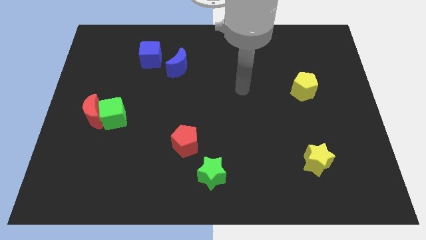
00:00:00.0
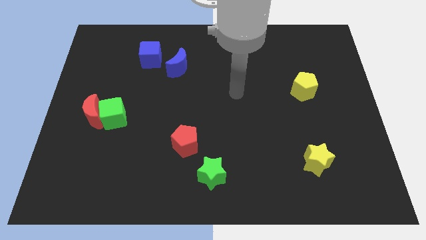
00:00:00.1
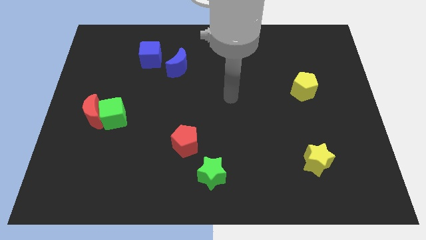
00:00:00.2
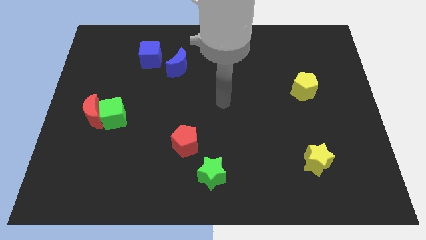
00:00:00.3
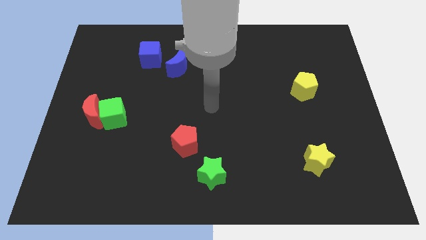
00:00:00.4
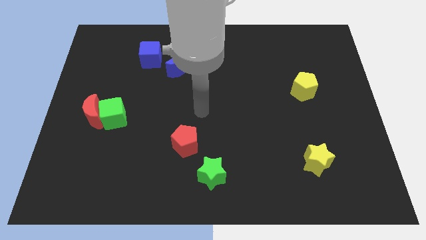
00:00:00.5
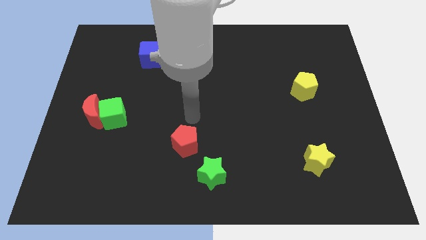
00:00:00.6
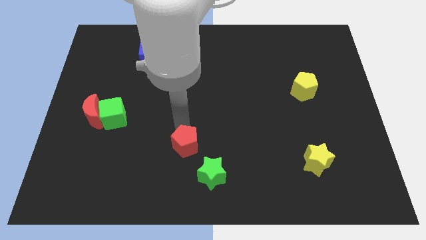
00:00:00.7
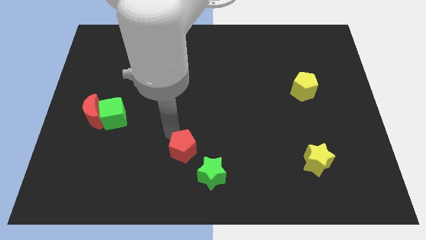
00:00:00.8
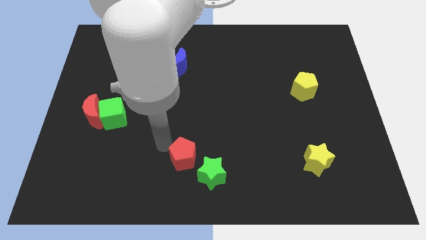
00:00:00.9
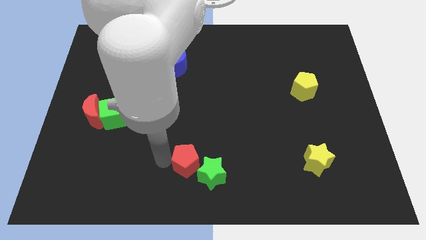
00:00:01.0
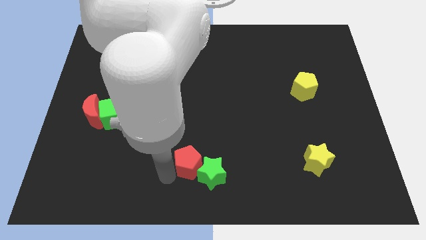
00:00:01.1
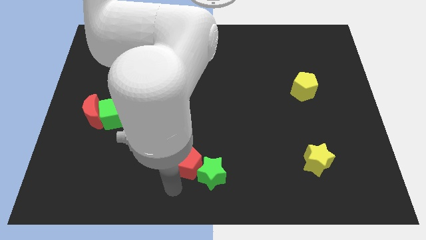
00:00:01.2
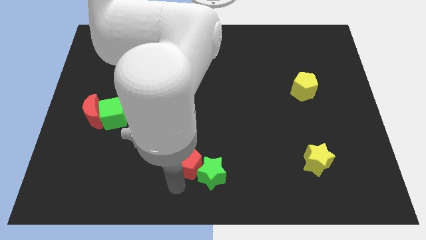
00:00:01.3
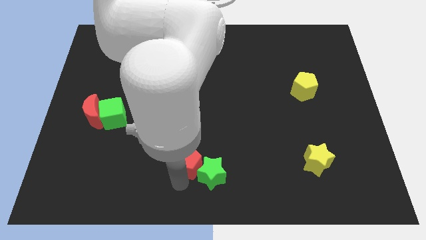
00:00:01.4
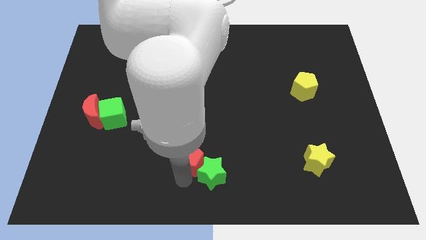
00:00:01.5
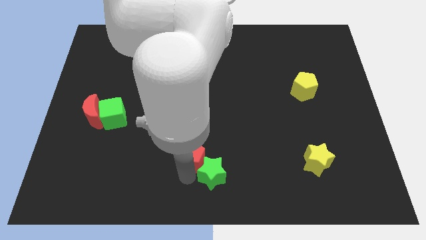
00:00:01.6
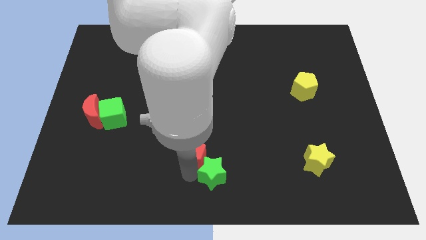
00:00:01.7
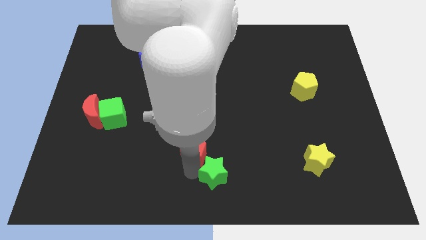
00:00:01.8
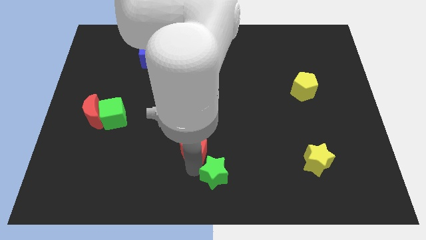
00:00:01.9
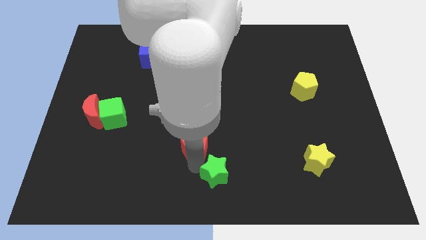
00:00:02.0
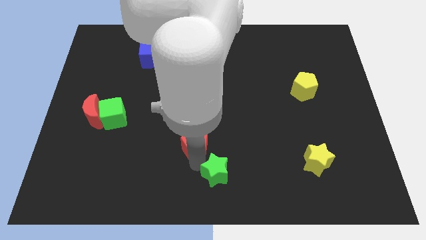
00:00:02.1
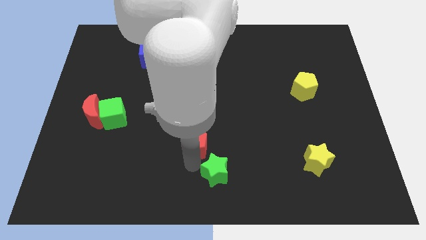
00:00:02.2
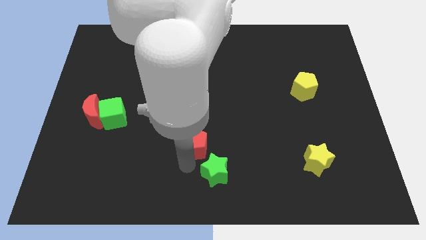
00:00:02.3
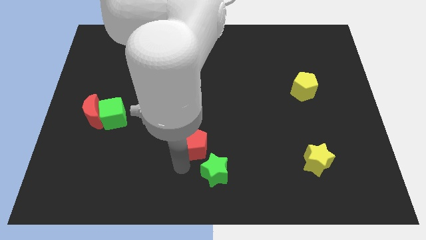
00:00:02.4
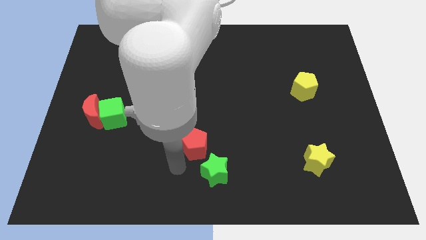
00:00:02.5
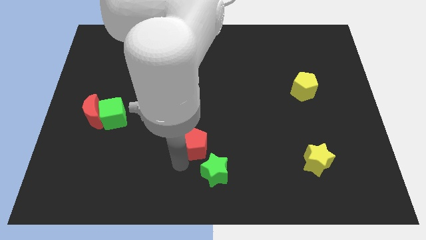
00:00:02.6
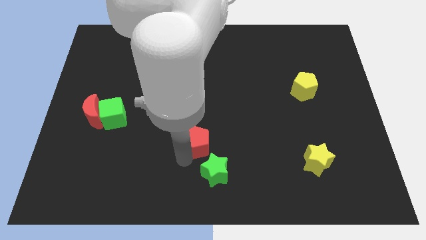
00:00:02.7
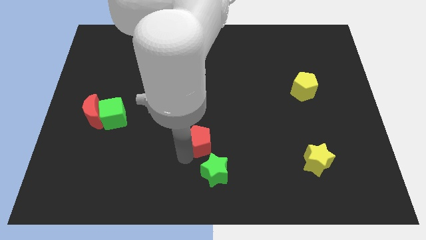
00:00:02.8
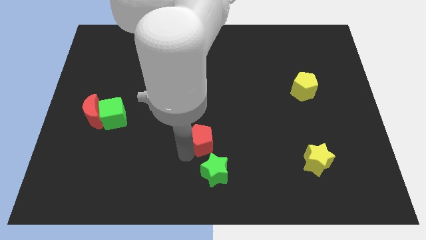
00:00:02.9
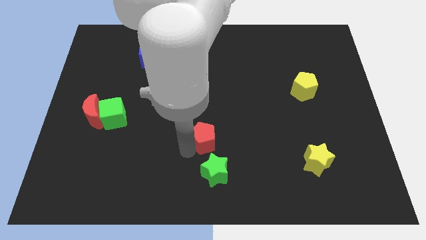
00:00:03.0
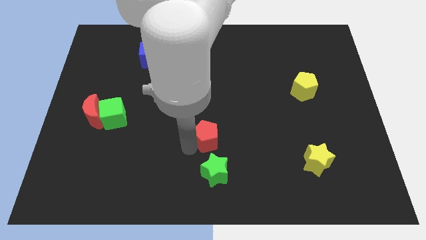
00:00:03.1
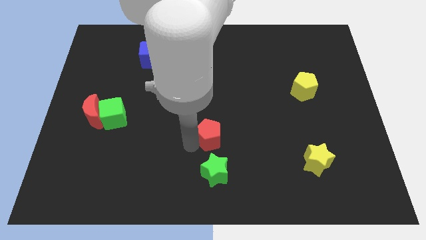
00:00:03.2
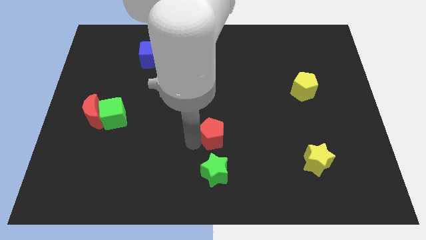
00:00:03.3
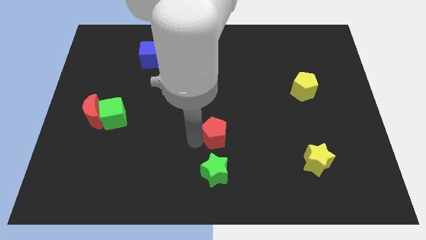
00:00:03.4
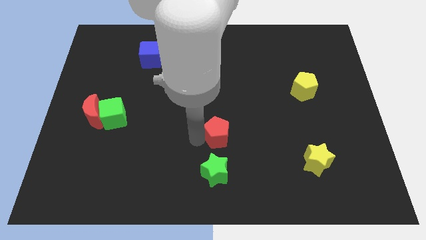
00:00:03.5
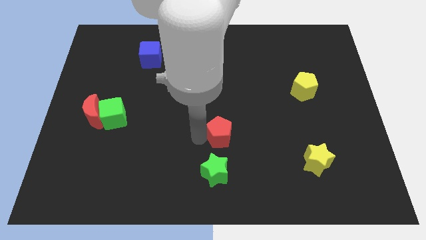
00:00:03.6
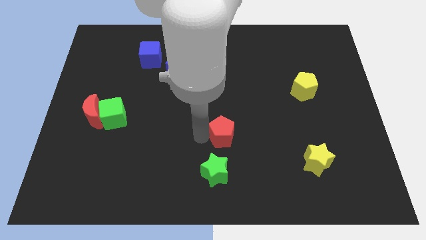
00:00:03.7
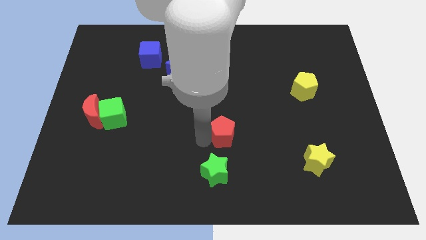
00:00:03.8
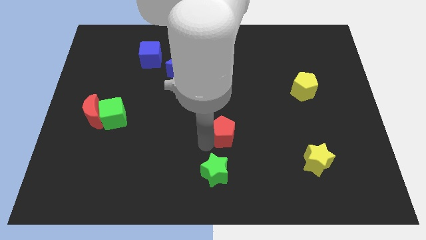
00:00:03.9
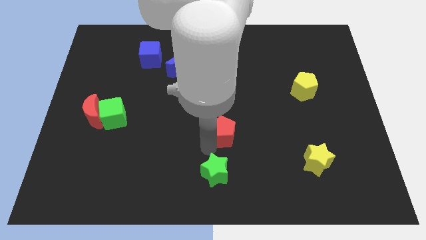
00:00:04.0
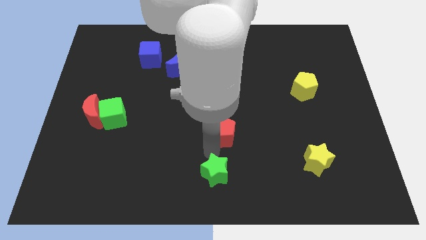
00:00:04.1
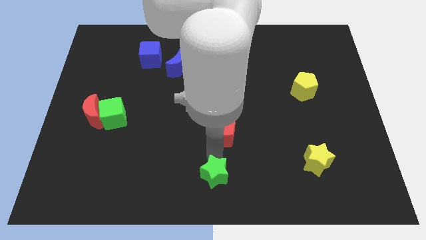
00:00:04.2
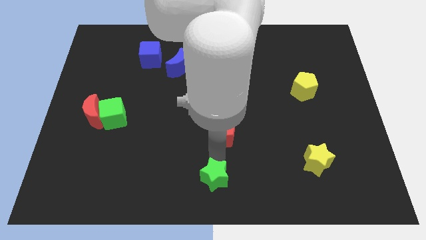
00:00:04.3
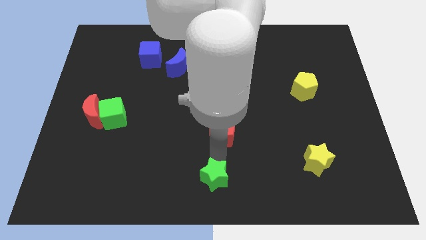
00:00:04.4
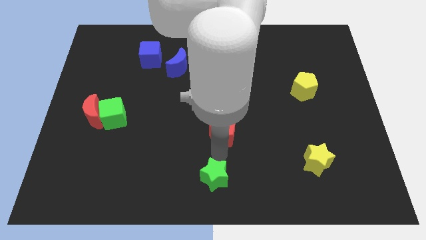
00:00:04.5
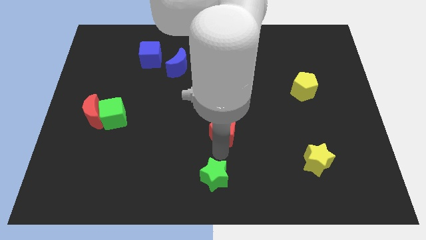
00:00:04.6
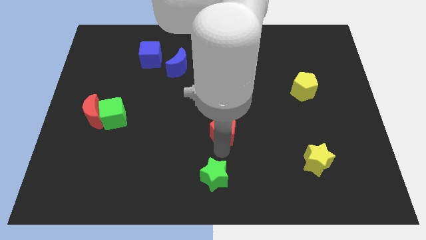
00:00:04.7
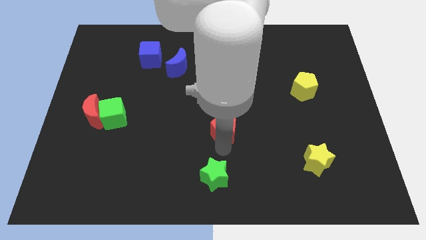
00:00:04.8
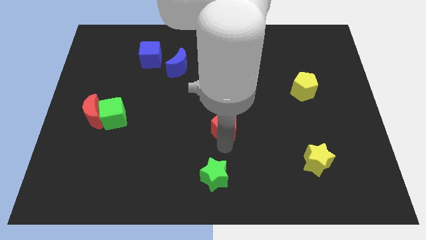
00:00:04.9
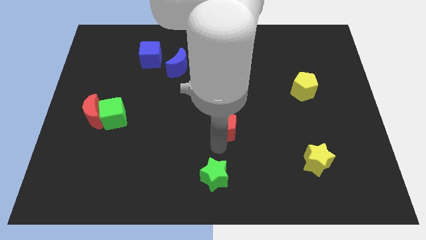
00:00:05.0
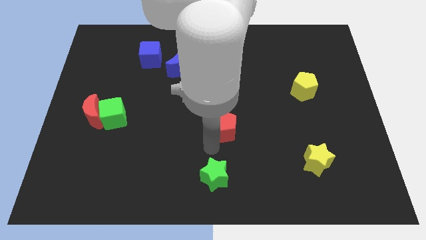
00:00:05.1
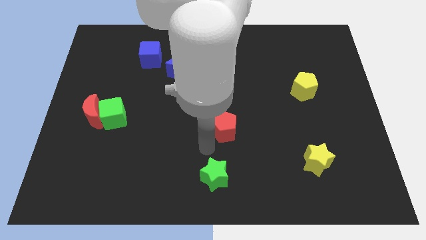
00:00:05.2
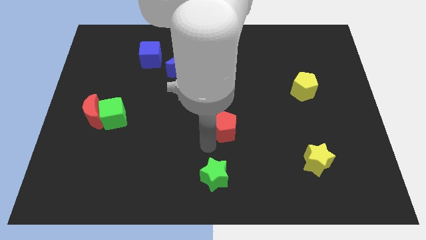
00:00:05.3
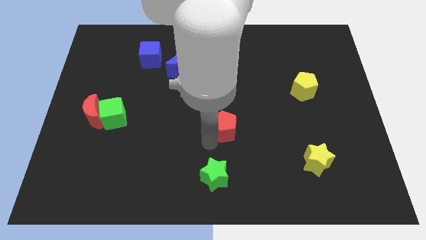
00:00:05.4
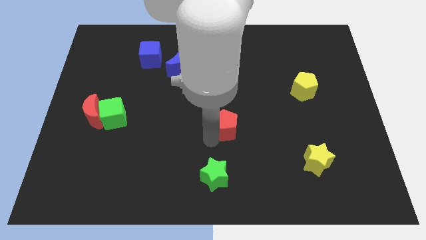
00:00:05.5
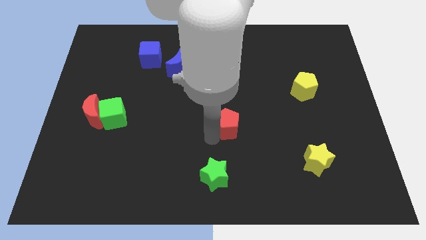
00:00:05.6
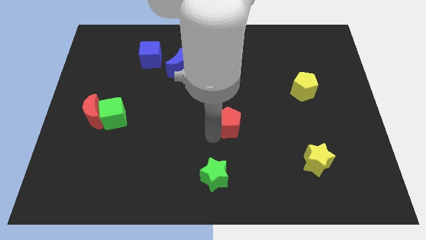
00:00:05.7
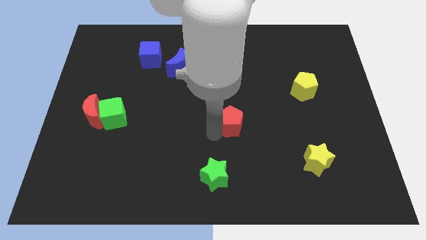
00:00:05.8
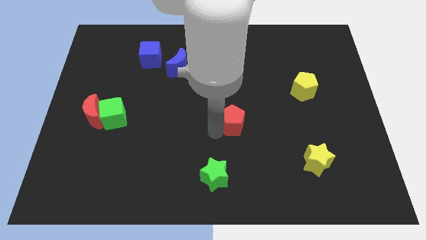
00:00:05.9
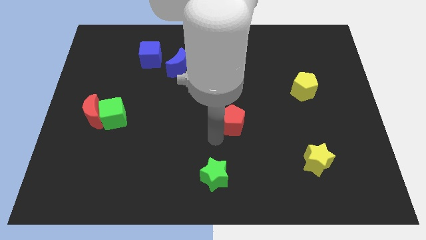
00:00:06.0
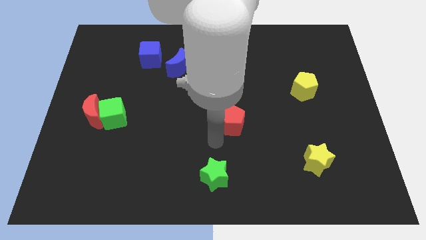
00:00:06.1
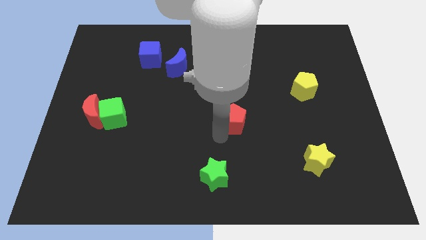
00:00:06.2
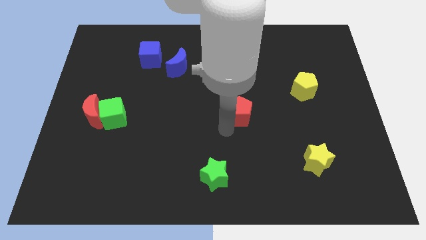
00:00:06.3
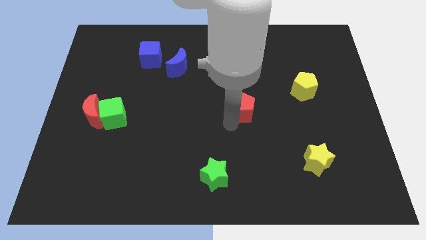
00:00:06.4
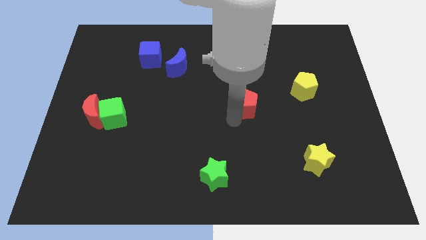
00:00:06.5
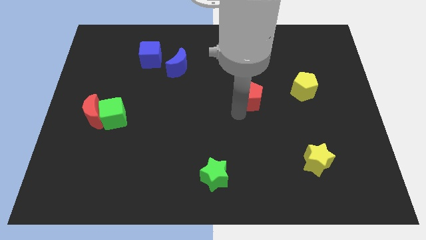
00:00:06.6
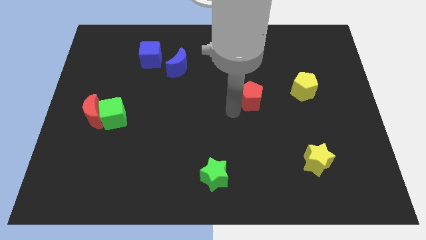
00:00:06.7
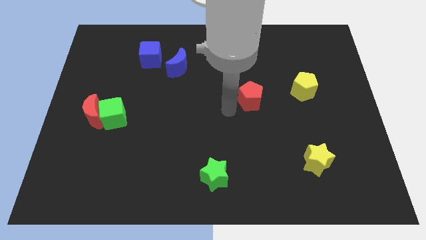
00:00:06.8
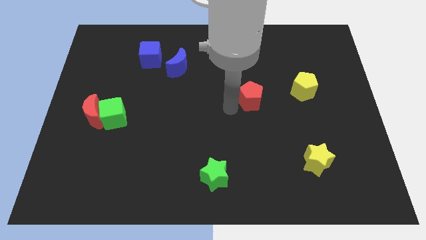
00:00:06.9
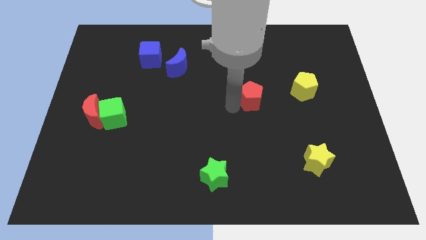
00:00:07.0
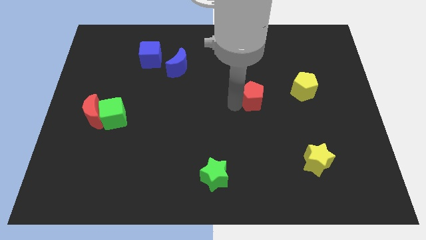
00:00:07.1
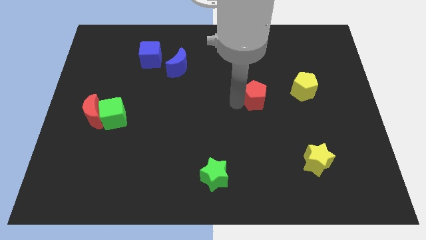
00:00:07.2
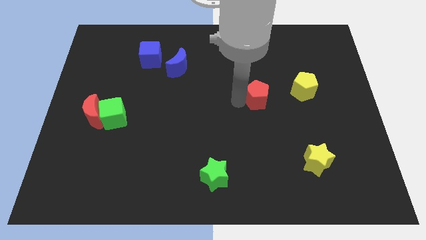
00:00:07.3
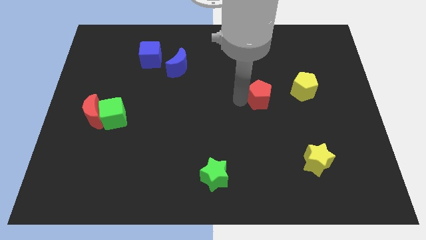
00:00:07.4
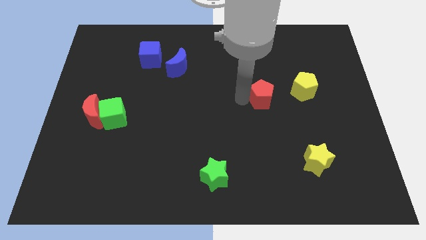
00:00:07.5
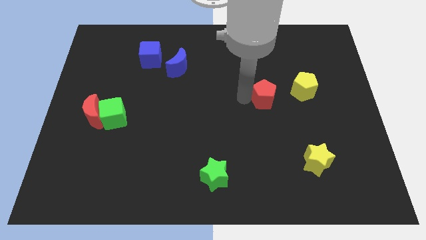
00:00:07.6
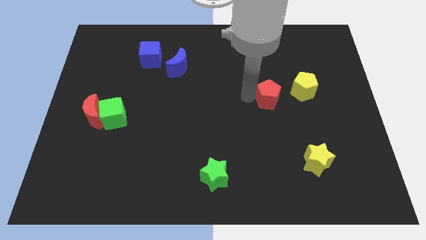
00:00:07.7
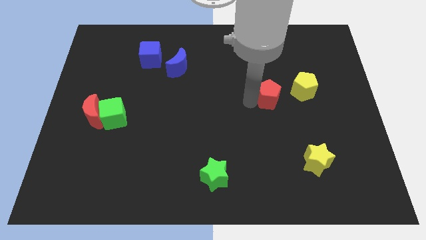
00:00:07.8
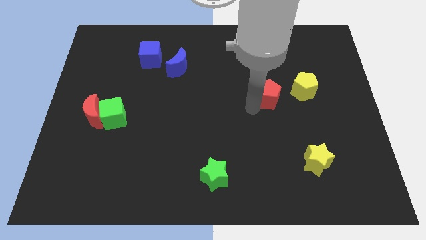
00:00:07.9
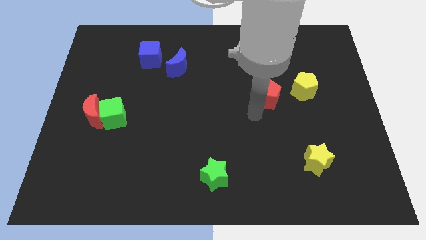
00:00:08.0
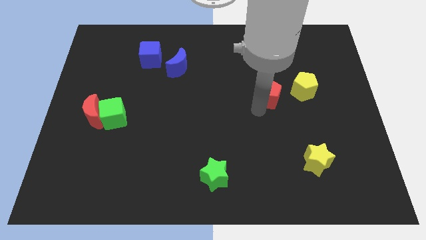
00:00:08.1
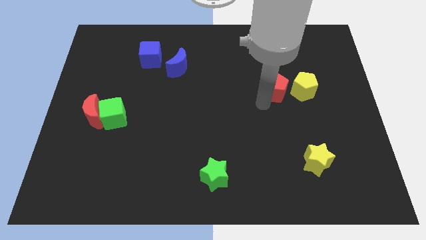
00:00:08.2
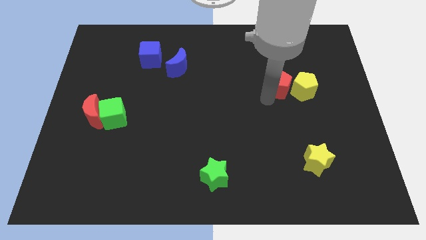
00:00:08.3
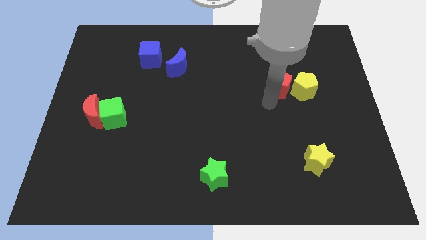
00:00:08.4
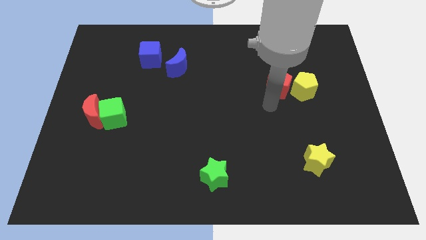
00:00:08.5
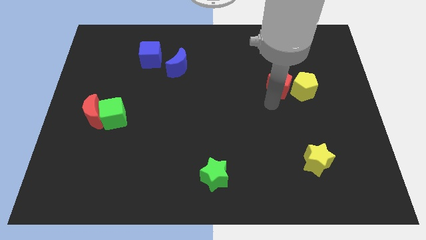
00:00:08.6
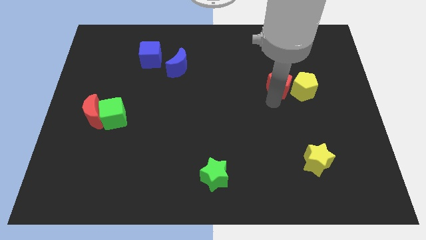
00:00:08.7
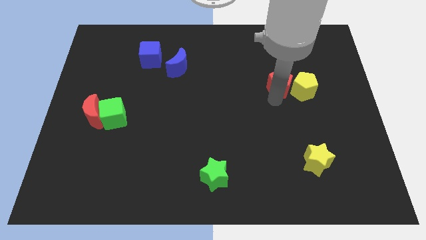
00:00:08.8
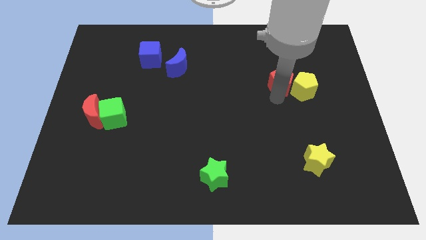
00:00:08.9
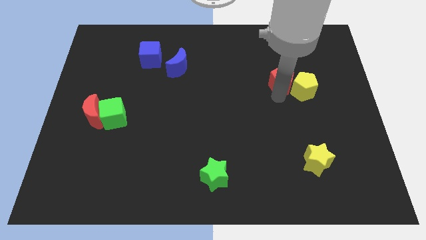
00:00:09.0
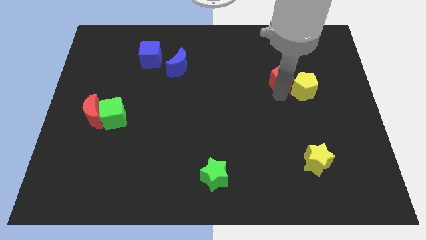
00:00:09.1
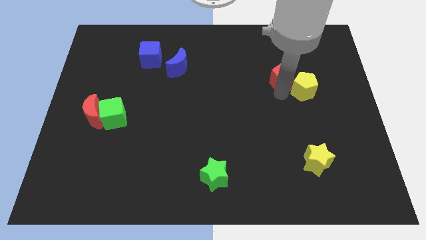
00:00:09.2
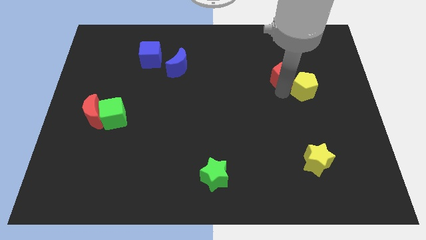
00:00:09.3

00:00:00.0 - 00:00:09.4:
move the red pentagon to the top side of the yellow pentagon
